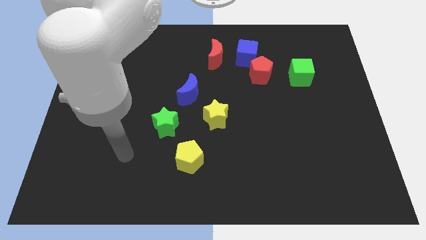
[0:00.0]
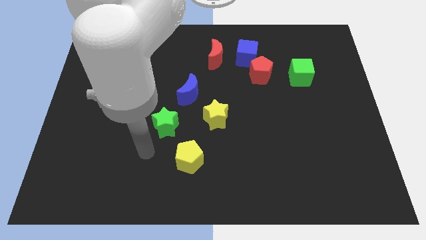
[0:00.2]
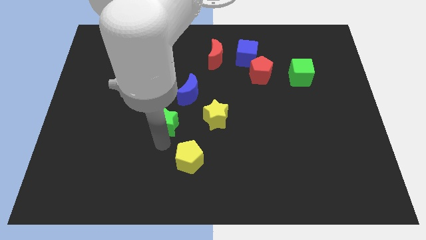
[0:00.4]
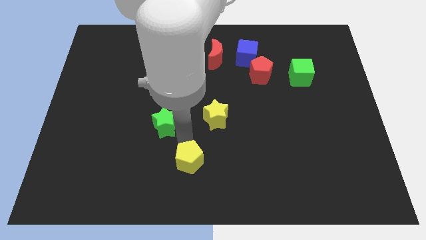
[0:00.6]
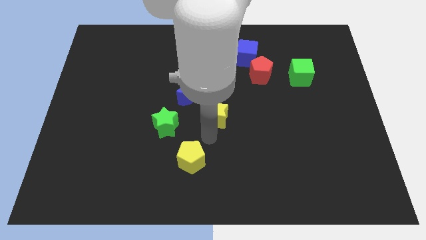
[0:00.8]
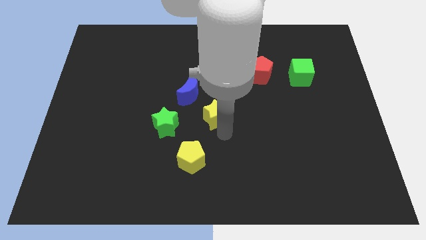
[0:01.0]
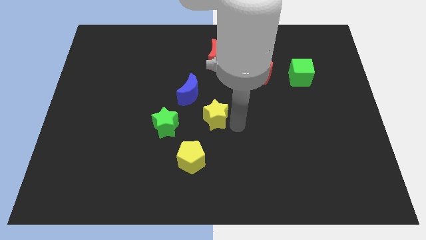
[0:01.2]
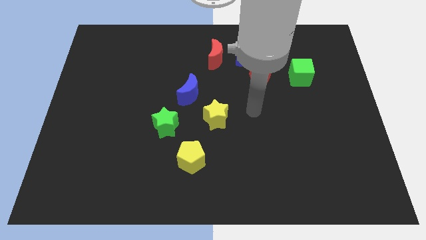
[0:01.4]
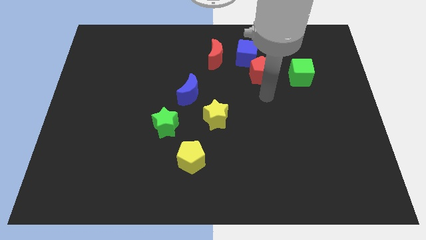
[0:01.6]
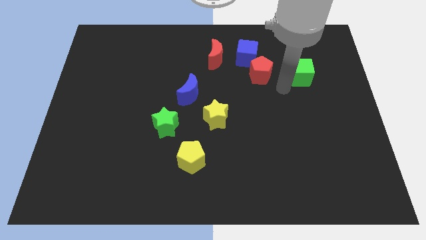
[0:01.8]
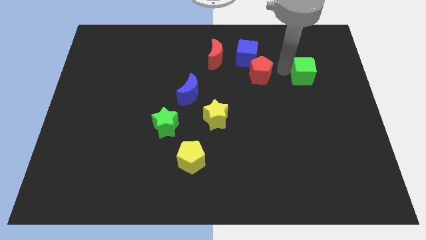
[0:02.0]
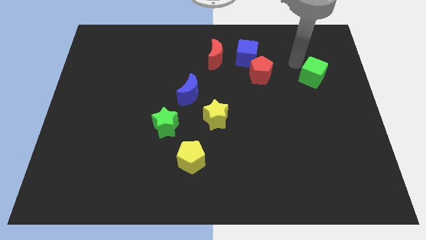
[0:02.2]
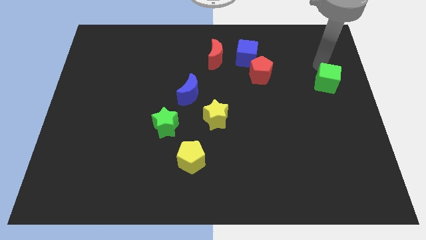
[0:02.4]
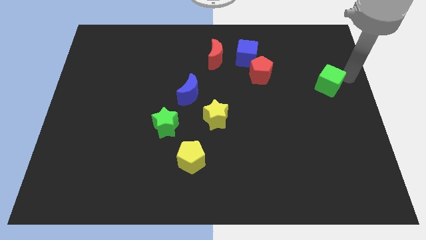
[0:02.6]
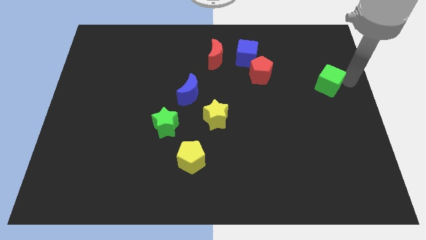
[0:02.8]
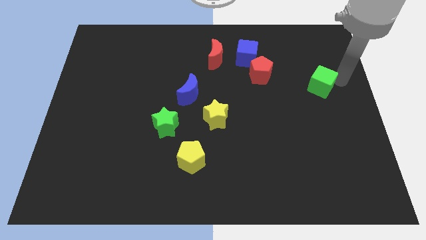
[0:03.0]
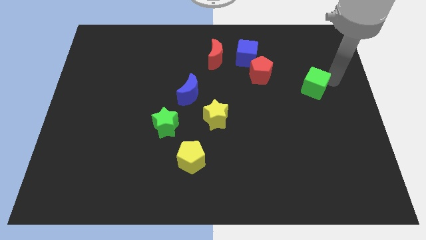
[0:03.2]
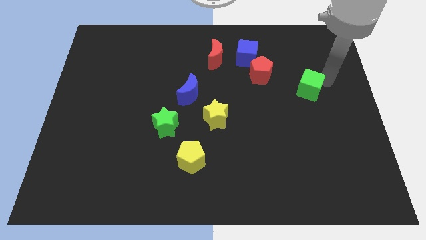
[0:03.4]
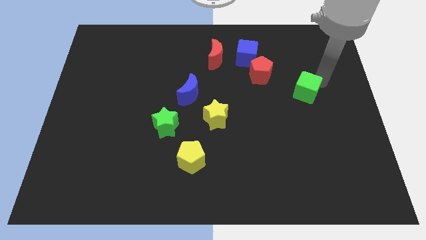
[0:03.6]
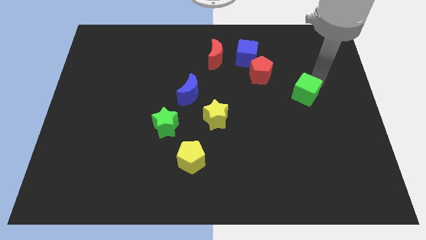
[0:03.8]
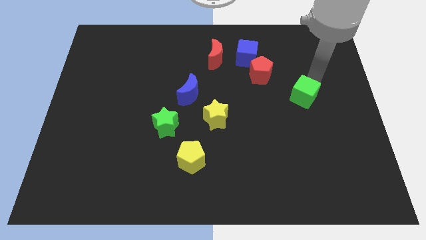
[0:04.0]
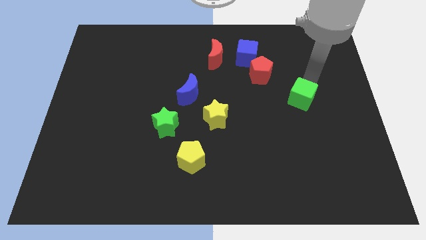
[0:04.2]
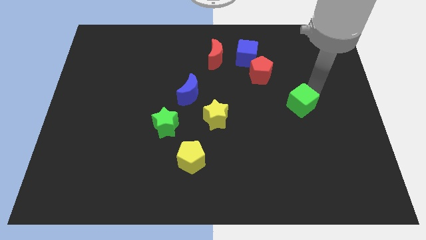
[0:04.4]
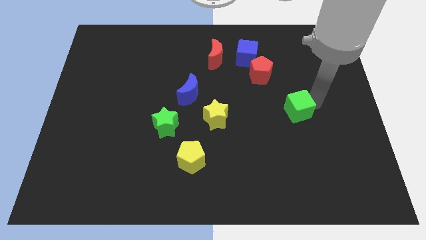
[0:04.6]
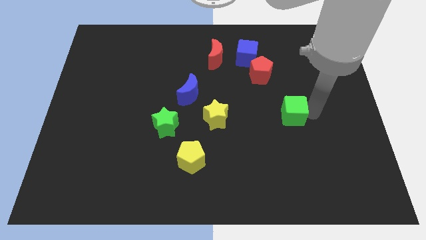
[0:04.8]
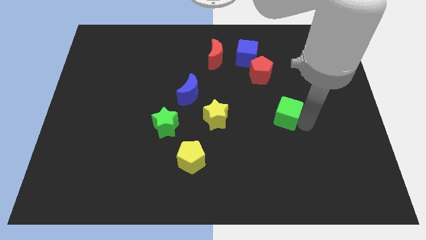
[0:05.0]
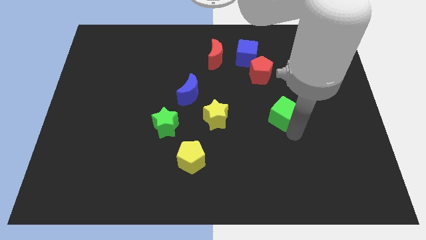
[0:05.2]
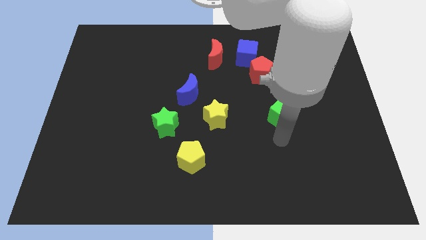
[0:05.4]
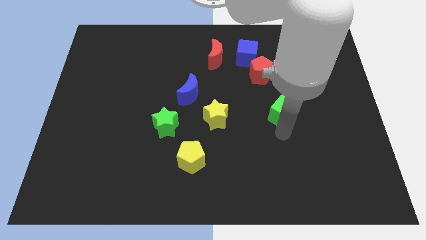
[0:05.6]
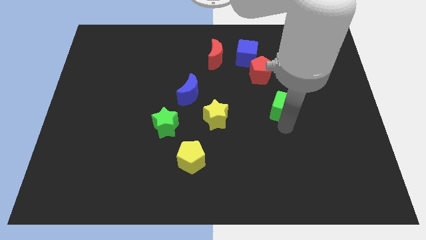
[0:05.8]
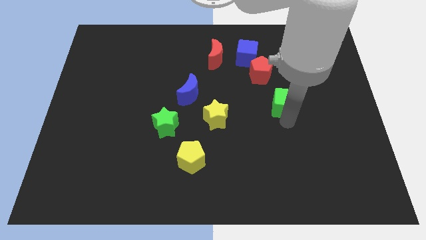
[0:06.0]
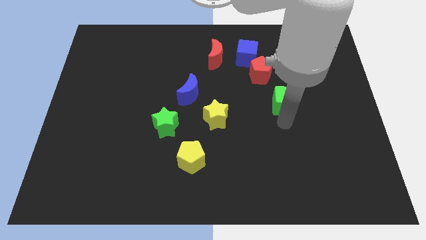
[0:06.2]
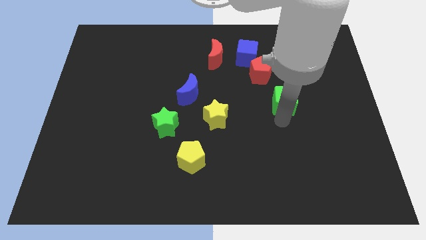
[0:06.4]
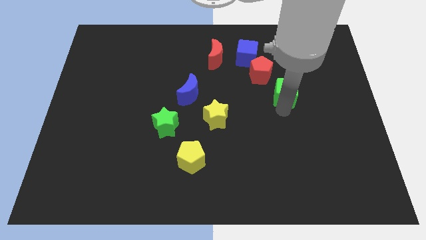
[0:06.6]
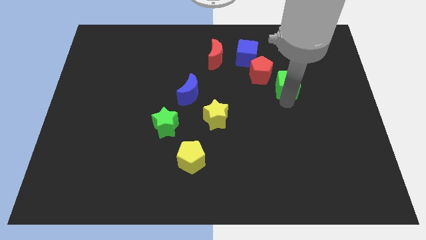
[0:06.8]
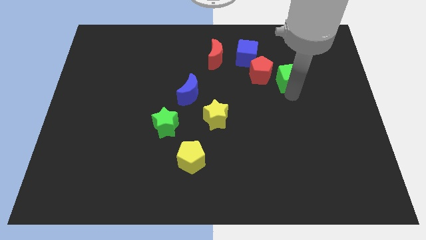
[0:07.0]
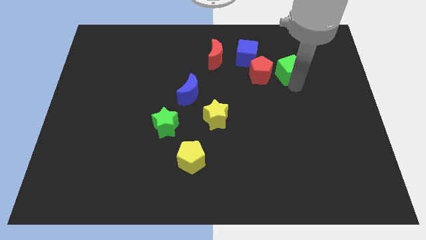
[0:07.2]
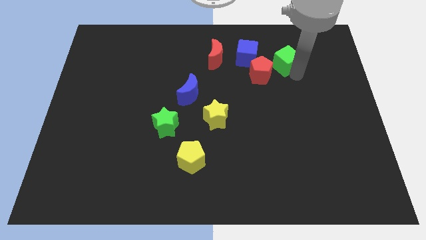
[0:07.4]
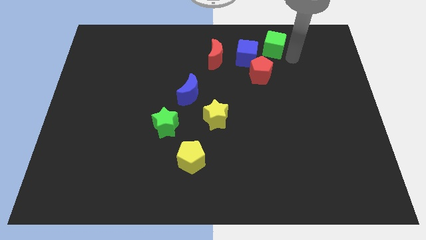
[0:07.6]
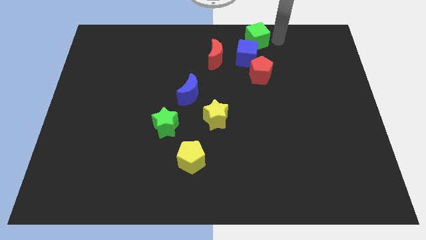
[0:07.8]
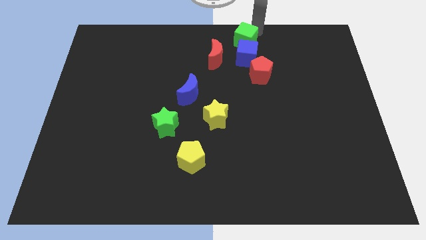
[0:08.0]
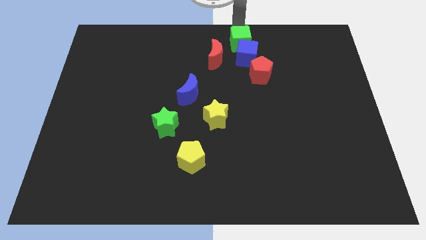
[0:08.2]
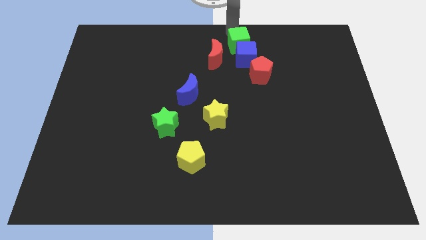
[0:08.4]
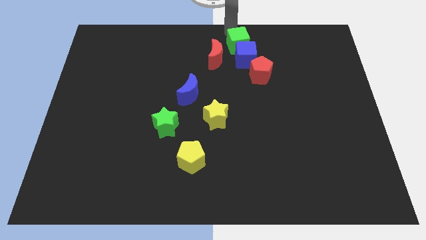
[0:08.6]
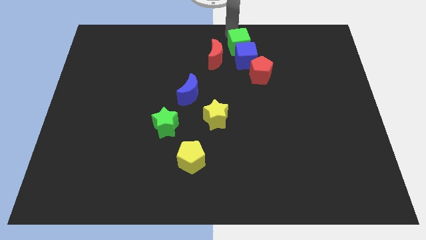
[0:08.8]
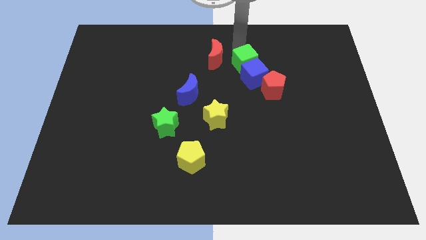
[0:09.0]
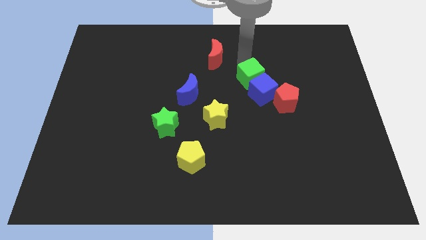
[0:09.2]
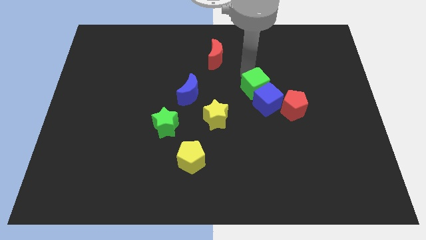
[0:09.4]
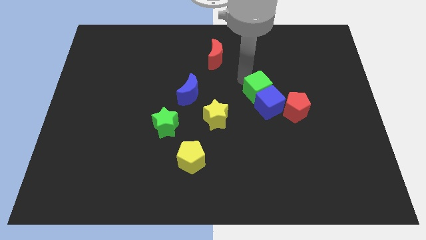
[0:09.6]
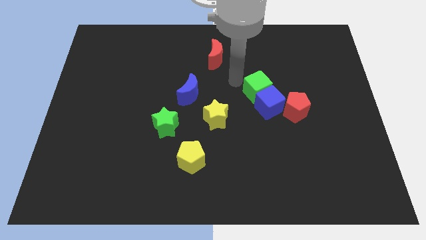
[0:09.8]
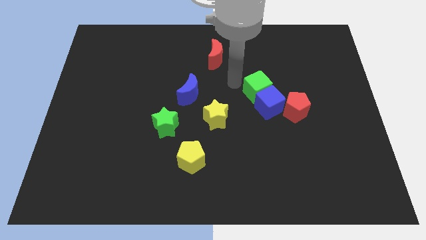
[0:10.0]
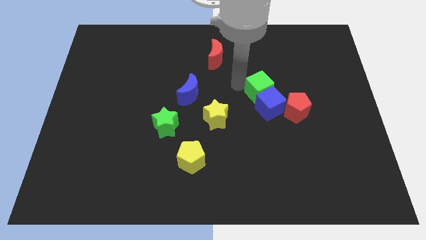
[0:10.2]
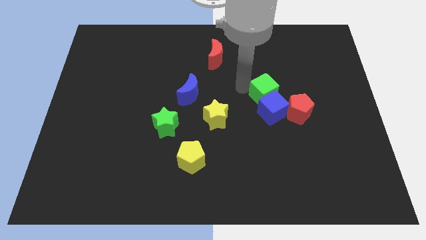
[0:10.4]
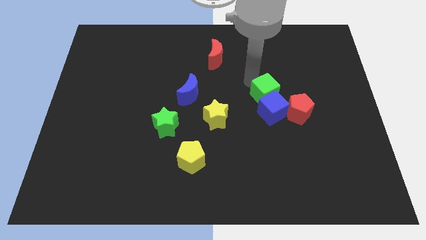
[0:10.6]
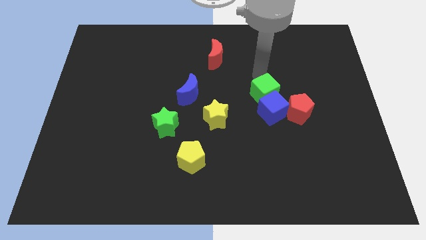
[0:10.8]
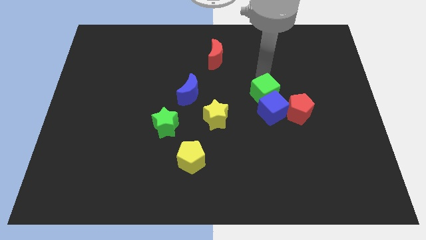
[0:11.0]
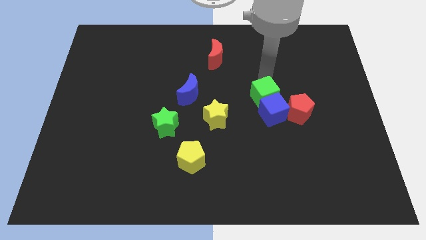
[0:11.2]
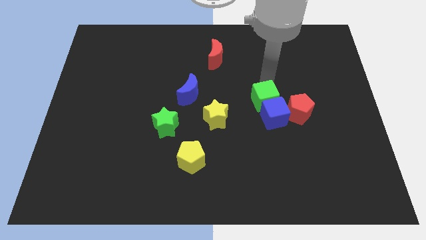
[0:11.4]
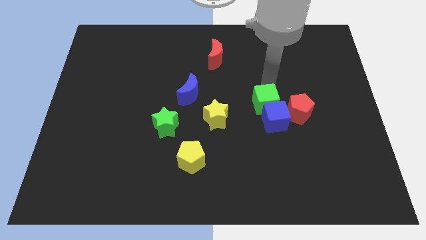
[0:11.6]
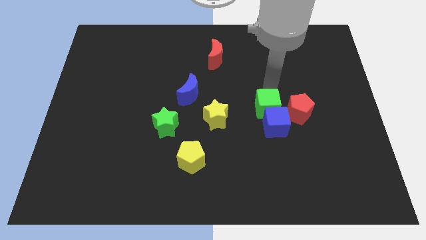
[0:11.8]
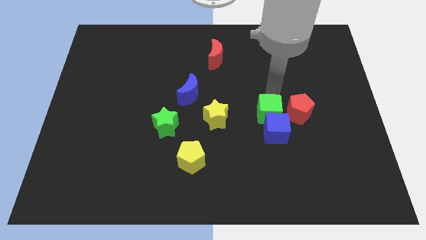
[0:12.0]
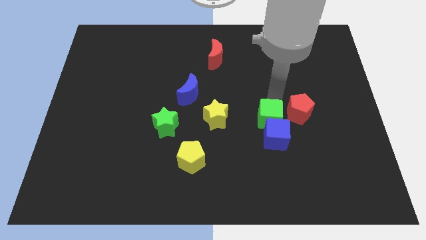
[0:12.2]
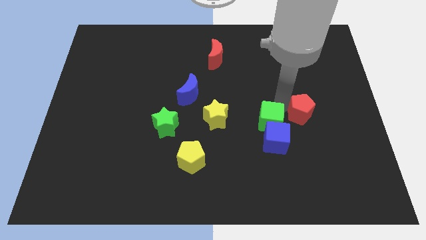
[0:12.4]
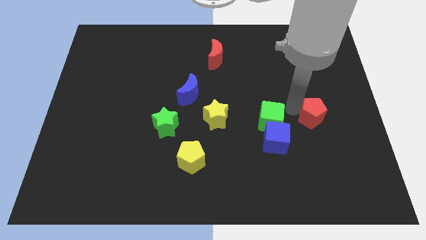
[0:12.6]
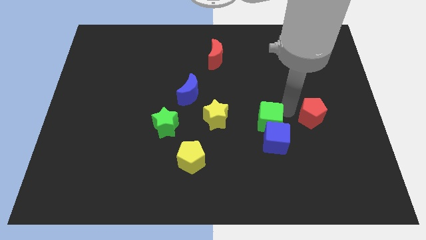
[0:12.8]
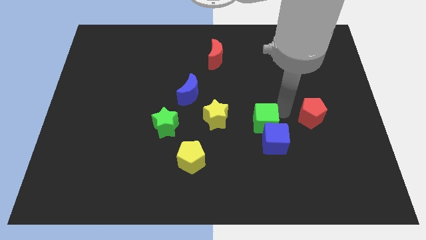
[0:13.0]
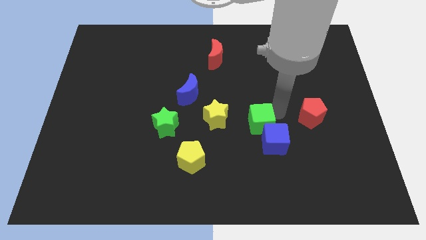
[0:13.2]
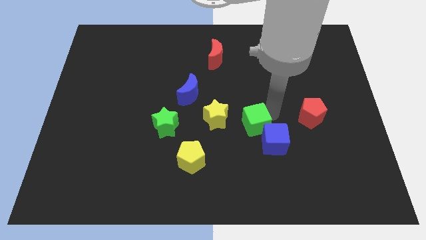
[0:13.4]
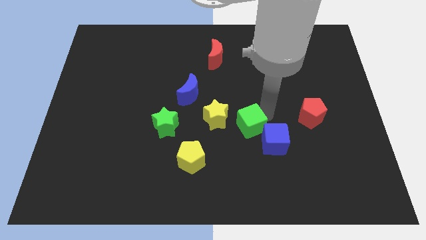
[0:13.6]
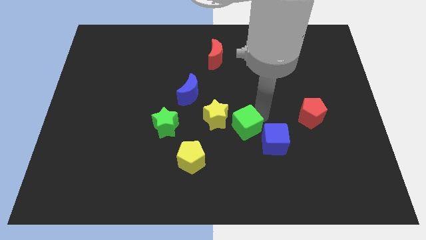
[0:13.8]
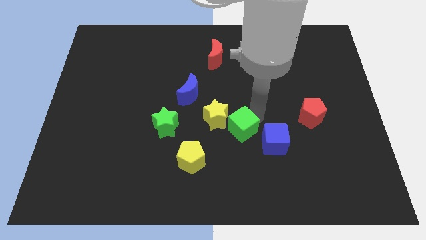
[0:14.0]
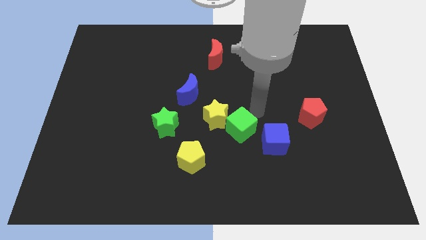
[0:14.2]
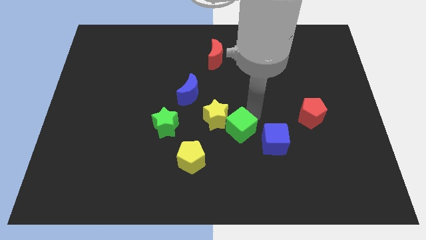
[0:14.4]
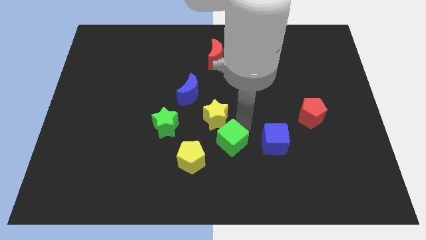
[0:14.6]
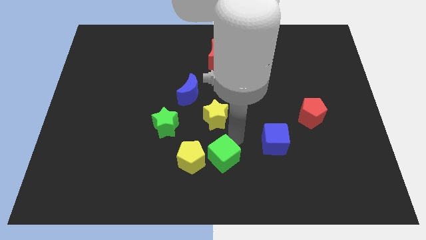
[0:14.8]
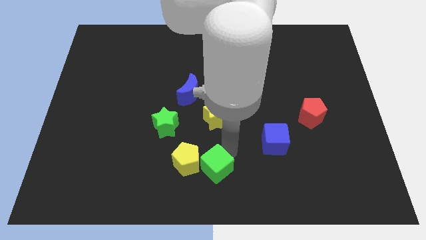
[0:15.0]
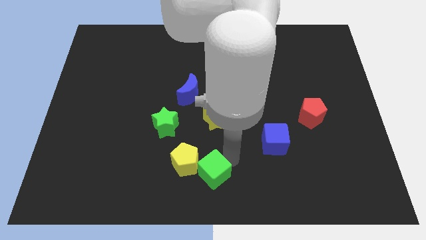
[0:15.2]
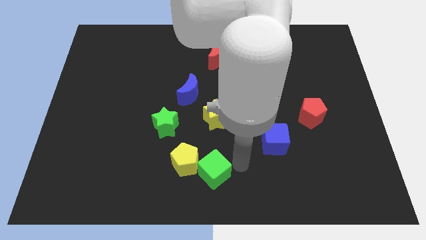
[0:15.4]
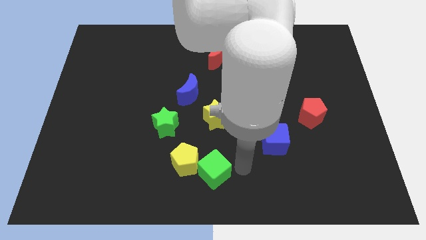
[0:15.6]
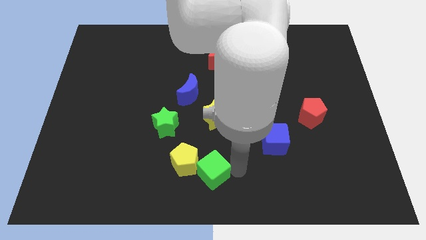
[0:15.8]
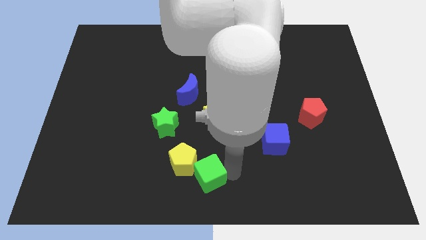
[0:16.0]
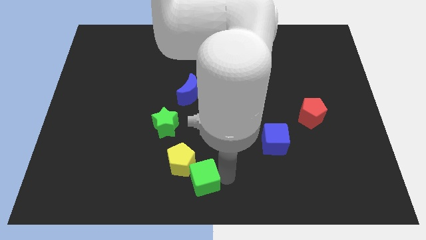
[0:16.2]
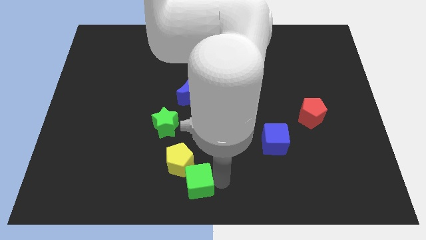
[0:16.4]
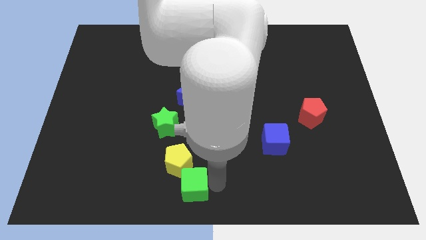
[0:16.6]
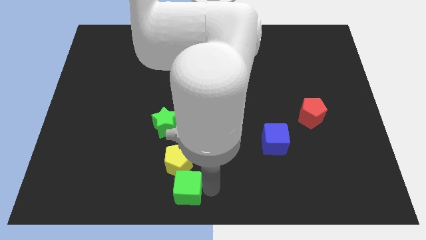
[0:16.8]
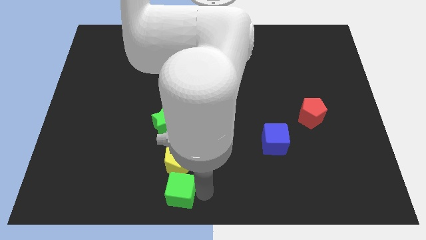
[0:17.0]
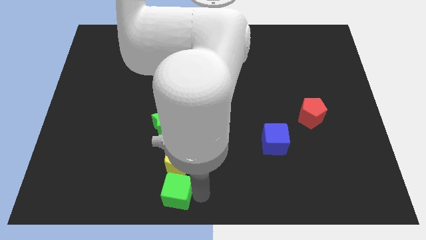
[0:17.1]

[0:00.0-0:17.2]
push the green cube to the bottom left side of the yellow pentagon
